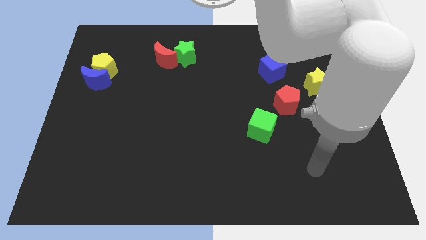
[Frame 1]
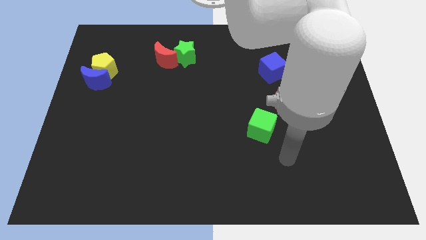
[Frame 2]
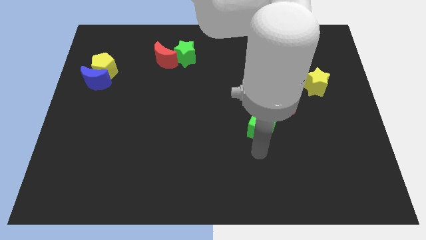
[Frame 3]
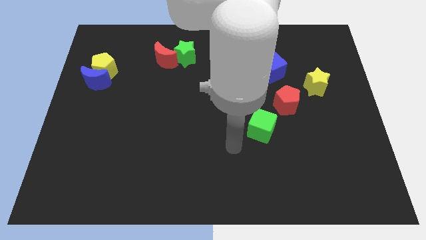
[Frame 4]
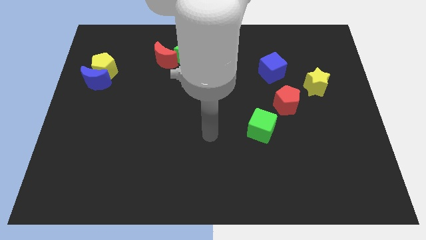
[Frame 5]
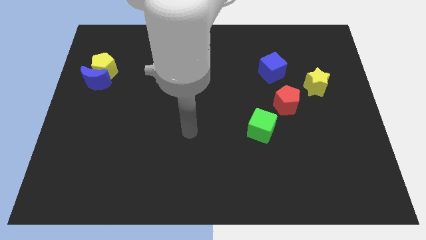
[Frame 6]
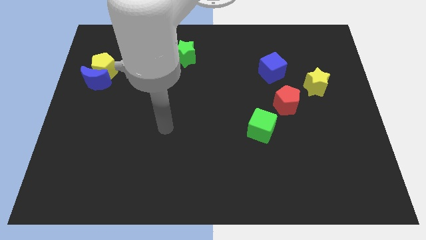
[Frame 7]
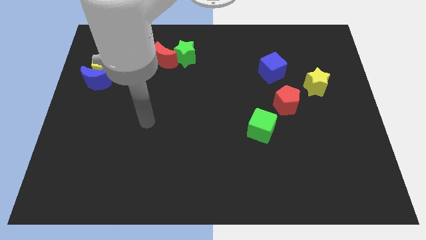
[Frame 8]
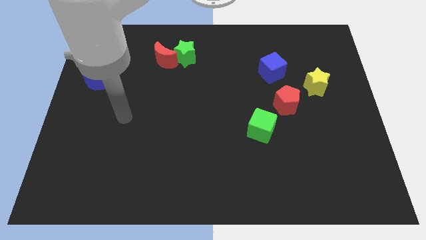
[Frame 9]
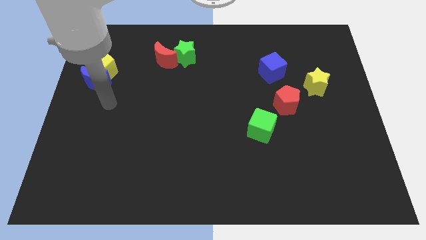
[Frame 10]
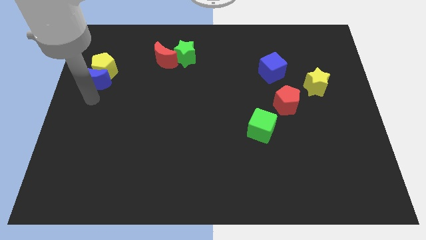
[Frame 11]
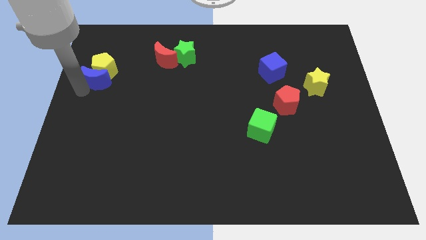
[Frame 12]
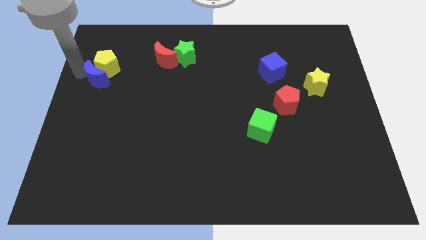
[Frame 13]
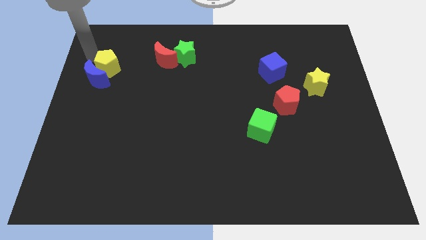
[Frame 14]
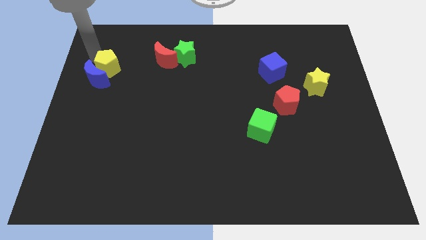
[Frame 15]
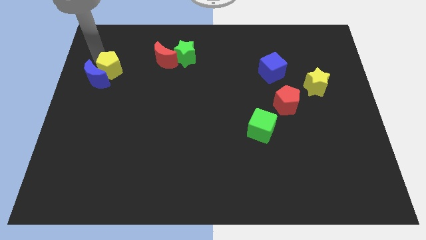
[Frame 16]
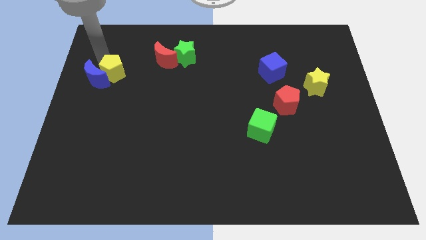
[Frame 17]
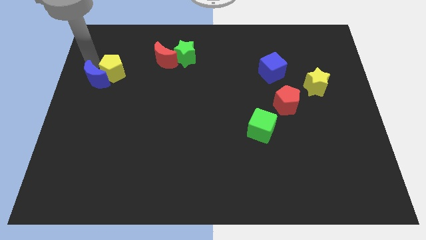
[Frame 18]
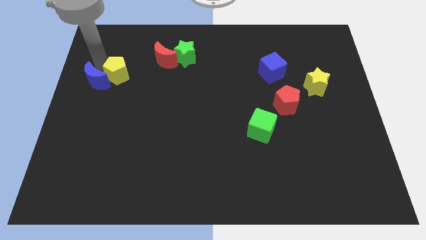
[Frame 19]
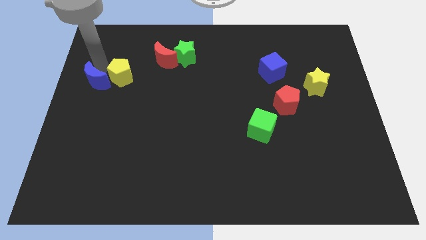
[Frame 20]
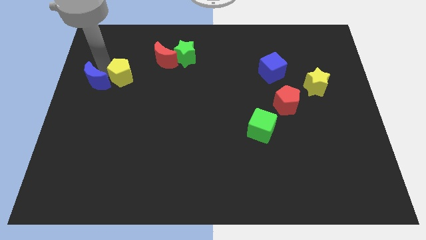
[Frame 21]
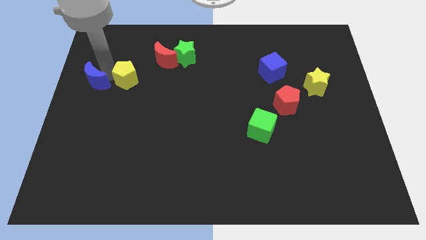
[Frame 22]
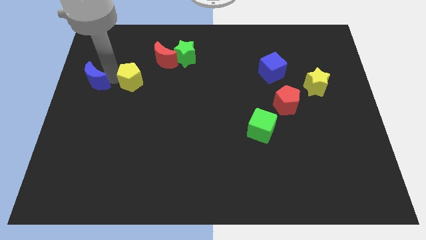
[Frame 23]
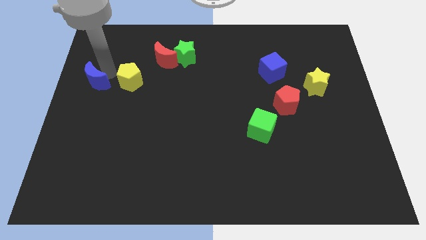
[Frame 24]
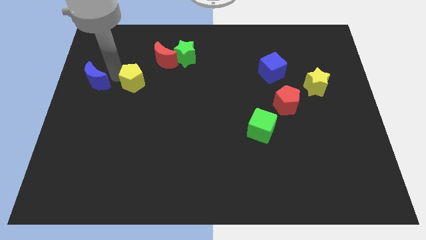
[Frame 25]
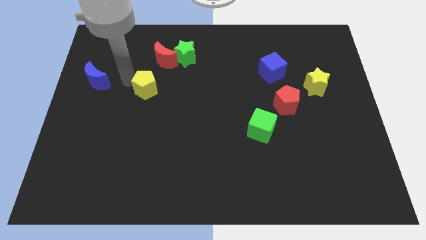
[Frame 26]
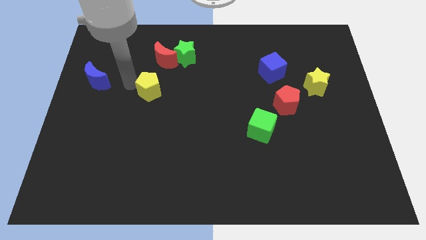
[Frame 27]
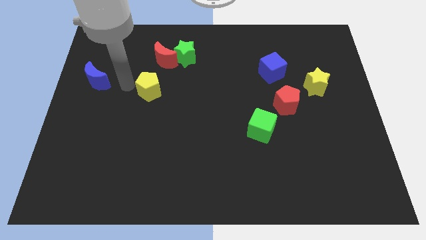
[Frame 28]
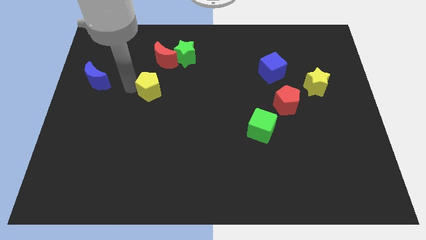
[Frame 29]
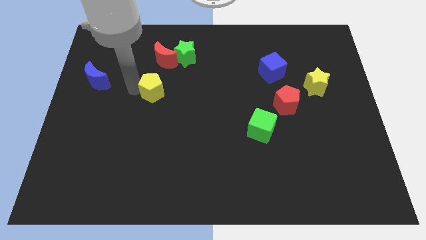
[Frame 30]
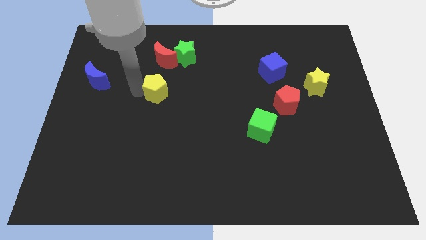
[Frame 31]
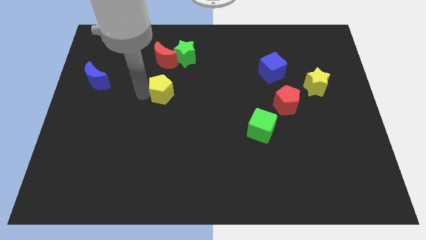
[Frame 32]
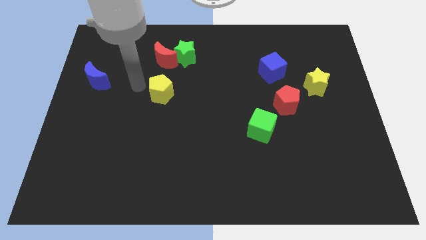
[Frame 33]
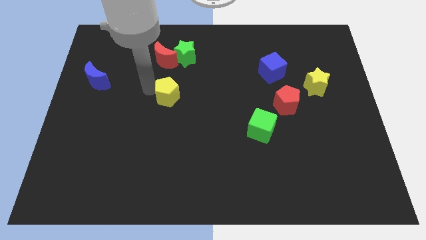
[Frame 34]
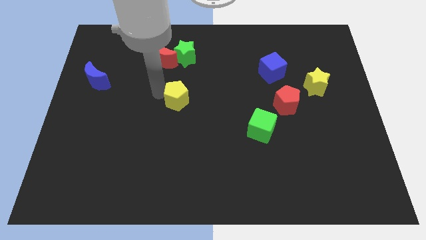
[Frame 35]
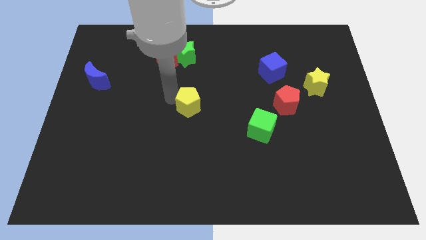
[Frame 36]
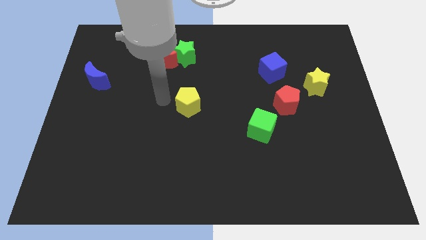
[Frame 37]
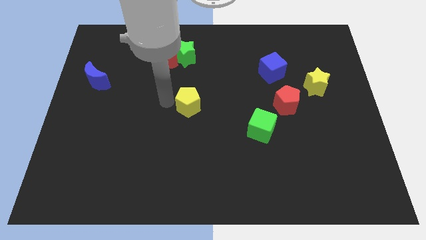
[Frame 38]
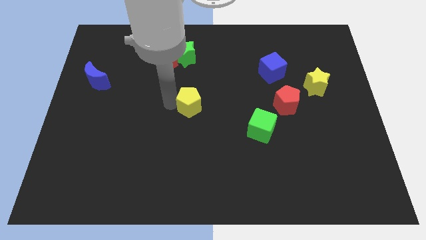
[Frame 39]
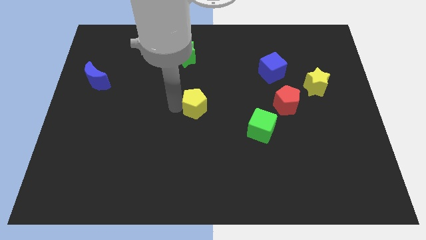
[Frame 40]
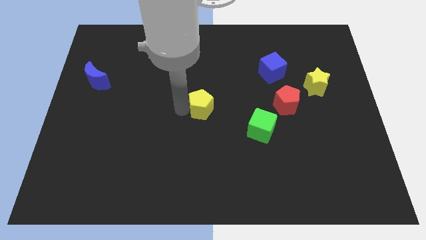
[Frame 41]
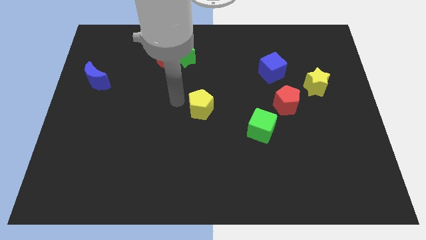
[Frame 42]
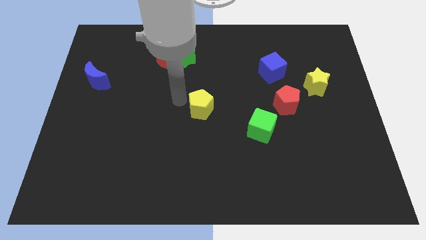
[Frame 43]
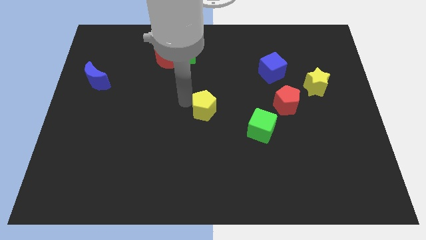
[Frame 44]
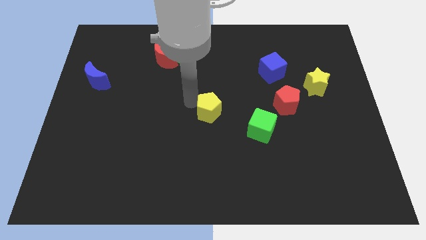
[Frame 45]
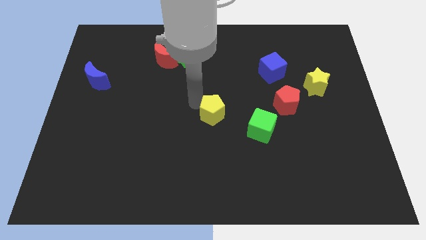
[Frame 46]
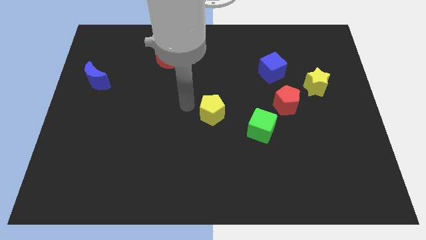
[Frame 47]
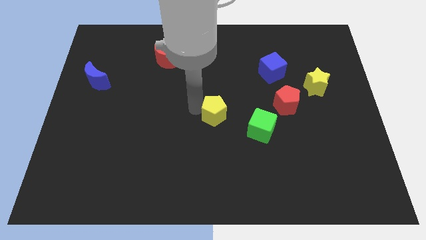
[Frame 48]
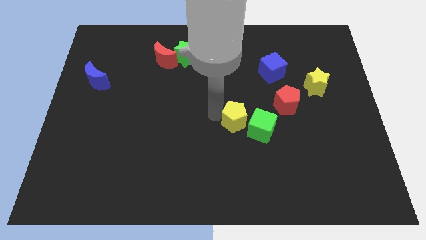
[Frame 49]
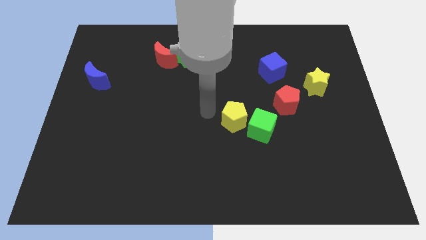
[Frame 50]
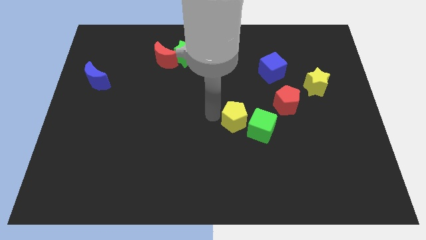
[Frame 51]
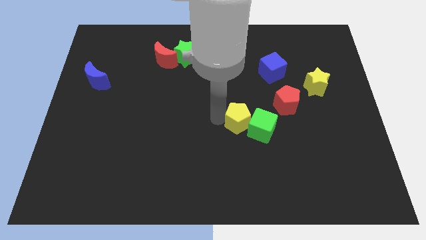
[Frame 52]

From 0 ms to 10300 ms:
push the yellow pentagon next to the green cube

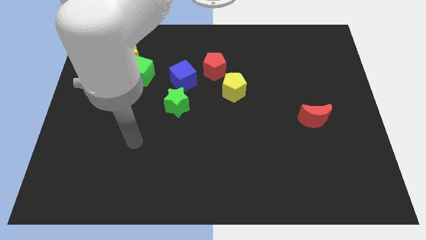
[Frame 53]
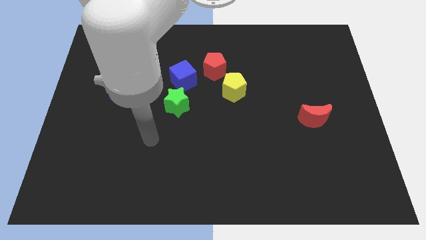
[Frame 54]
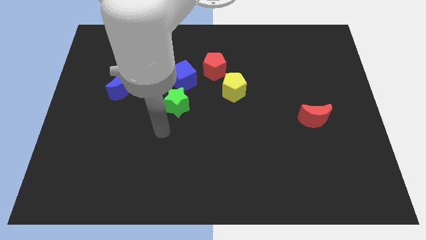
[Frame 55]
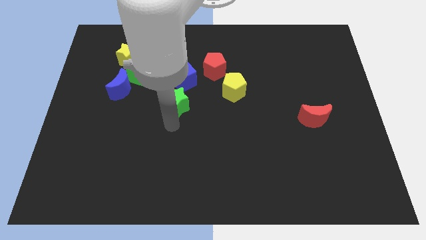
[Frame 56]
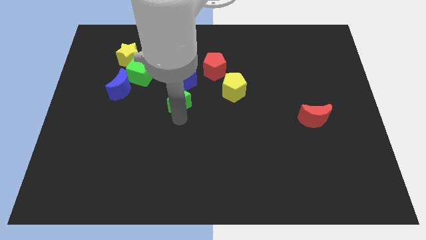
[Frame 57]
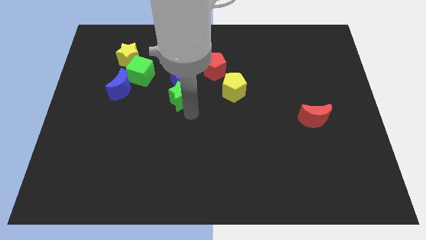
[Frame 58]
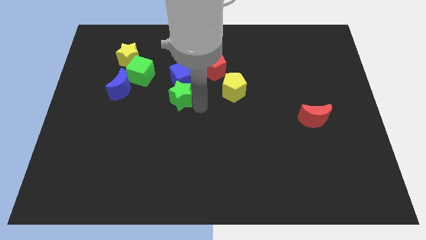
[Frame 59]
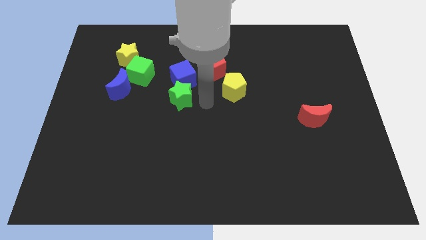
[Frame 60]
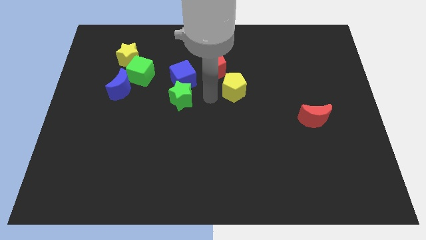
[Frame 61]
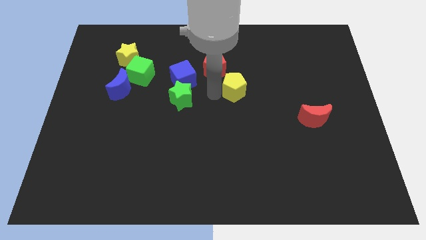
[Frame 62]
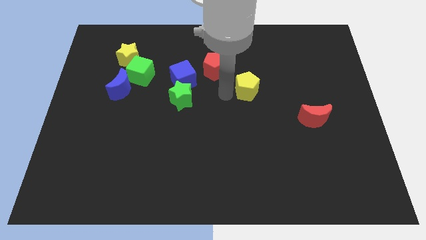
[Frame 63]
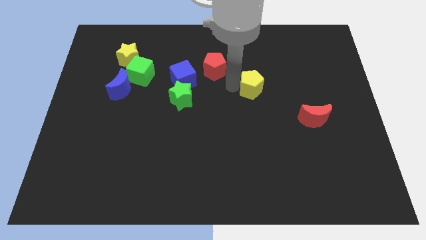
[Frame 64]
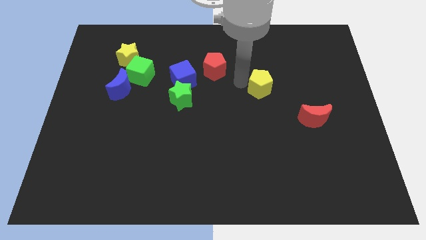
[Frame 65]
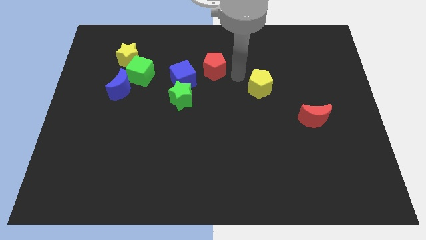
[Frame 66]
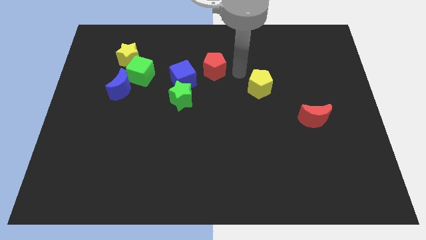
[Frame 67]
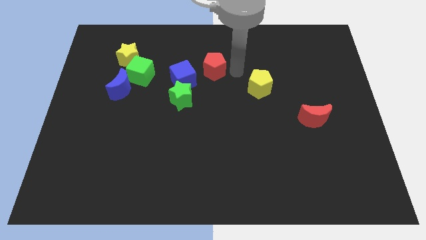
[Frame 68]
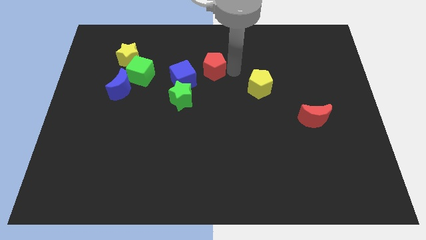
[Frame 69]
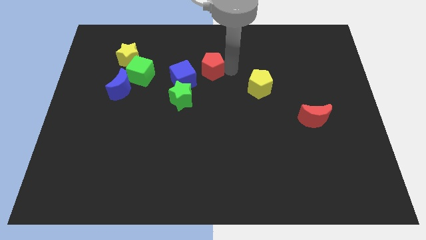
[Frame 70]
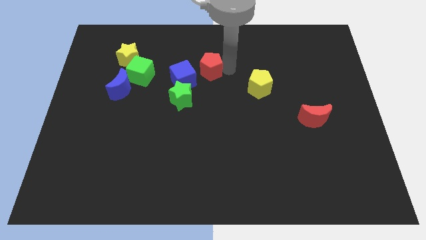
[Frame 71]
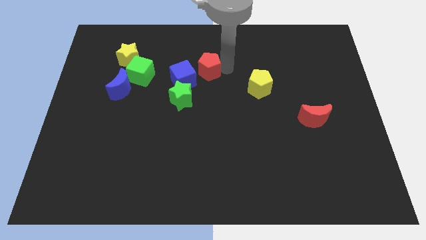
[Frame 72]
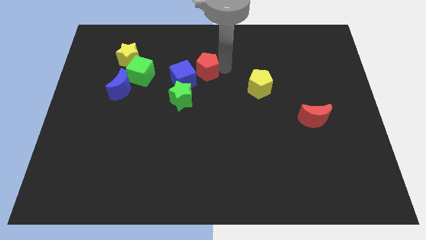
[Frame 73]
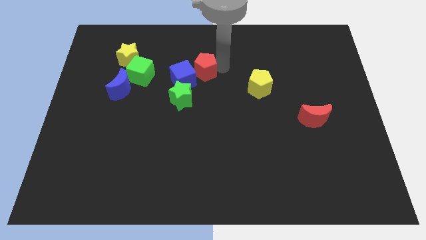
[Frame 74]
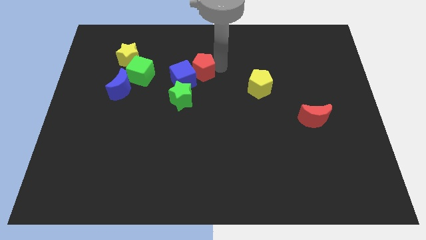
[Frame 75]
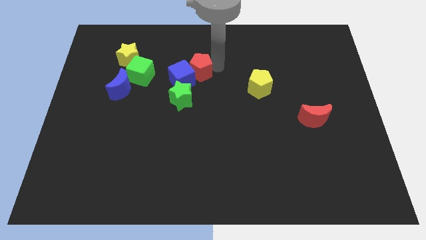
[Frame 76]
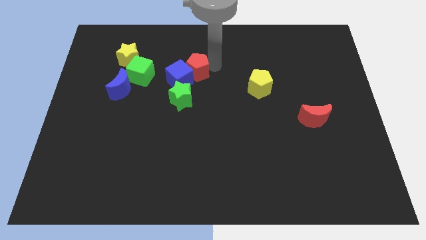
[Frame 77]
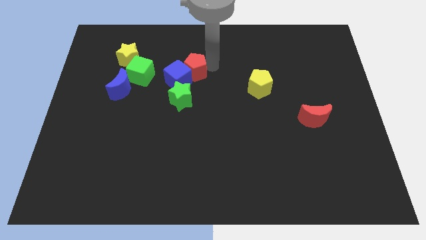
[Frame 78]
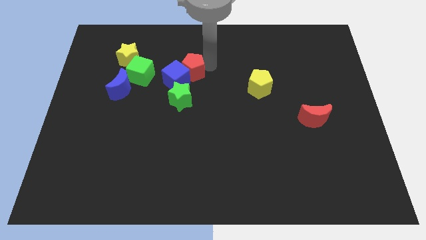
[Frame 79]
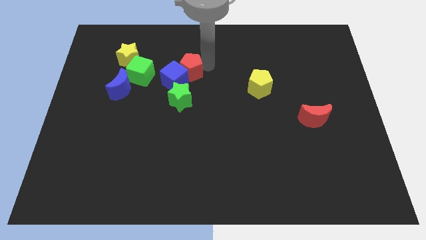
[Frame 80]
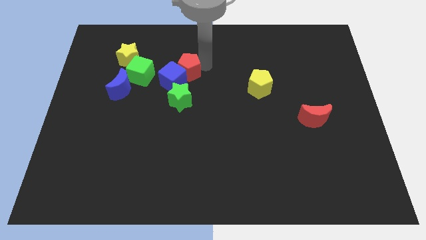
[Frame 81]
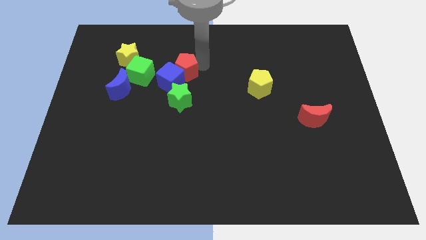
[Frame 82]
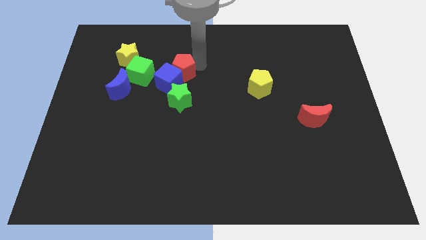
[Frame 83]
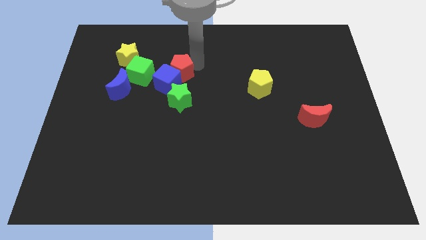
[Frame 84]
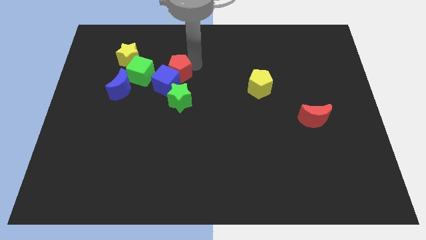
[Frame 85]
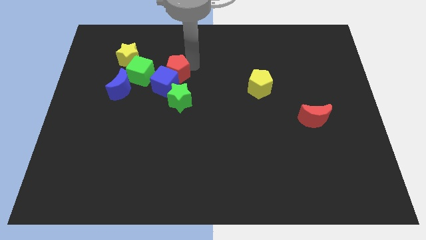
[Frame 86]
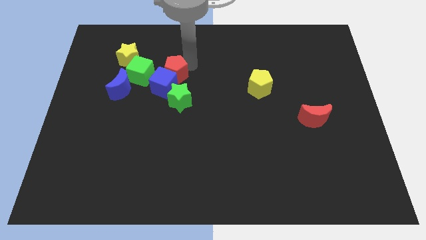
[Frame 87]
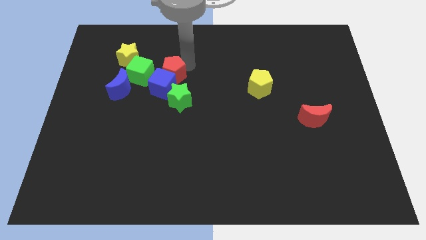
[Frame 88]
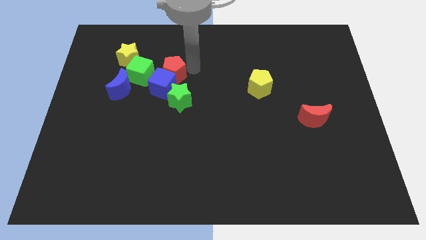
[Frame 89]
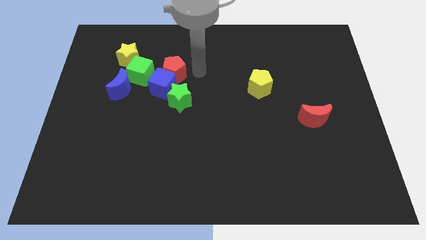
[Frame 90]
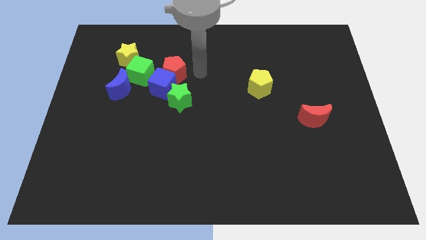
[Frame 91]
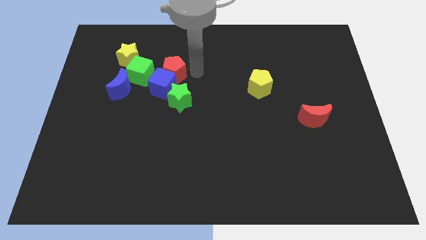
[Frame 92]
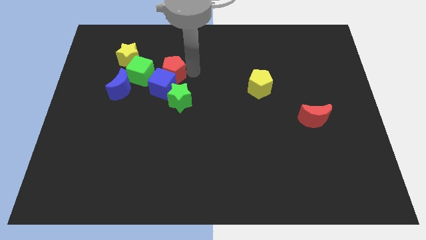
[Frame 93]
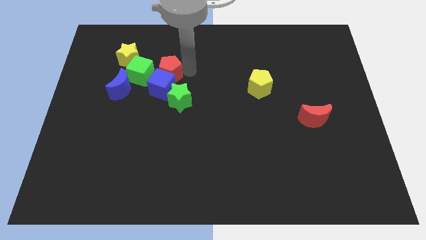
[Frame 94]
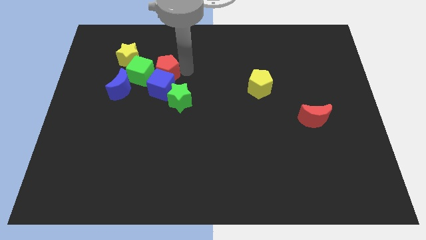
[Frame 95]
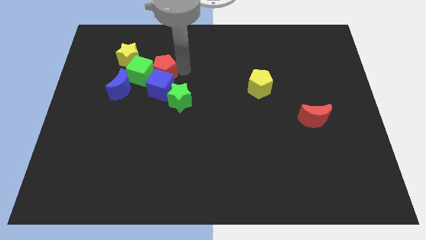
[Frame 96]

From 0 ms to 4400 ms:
move the red pentagon next to the green cube
